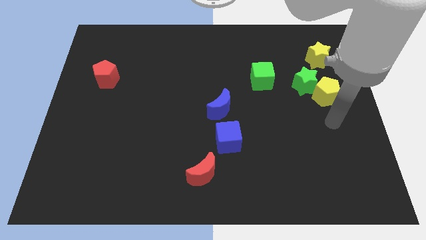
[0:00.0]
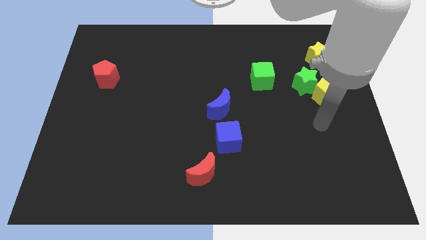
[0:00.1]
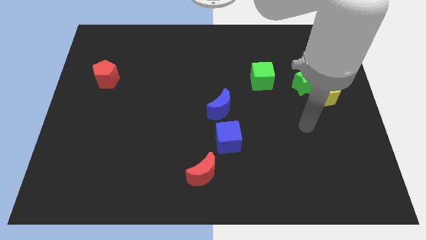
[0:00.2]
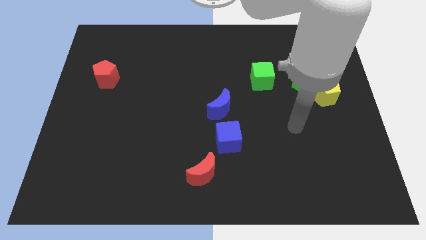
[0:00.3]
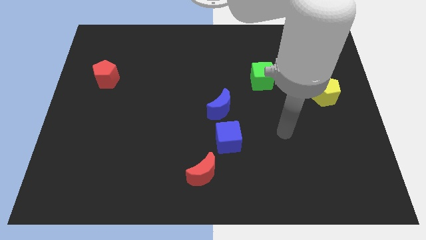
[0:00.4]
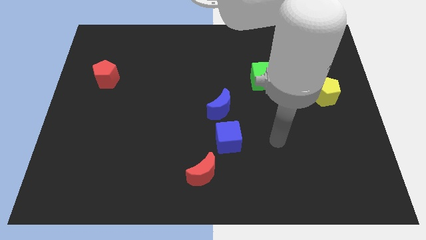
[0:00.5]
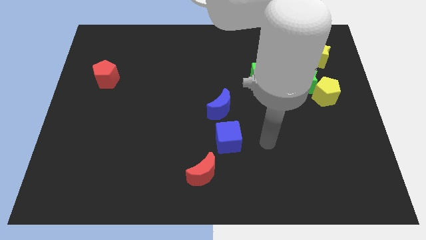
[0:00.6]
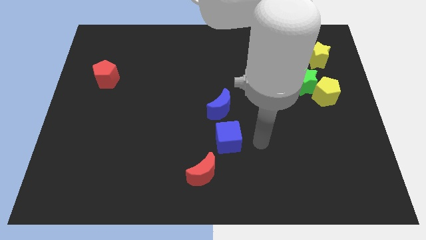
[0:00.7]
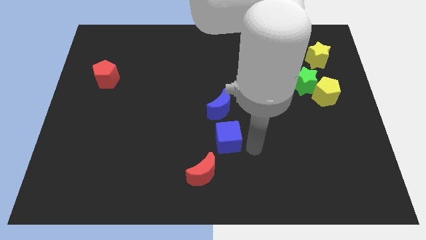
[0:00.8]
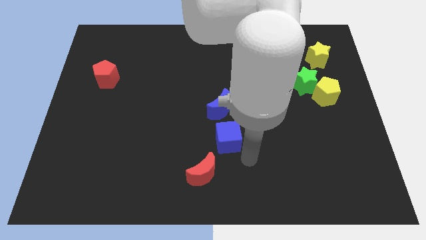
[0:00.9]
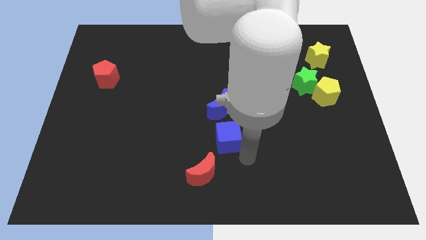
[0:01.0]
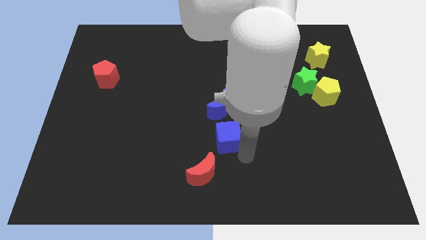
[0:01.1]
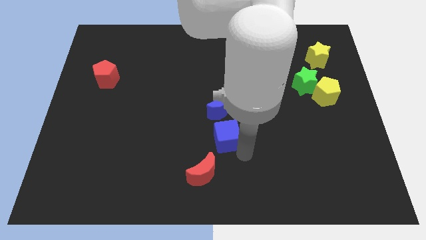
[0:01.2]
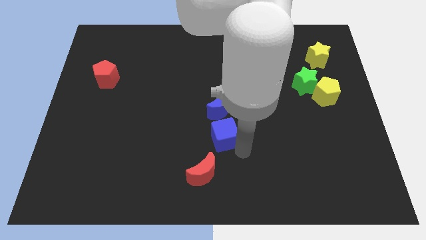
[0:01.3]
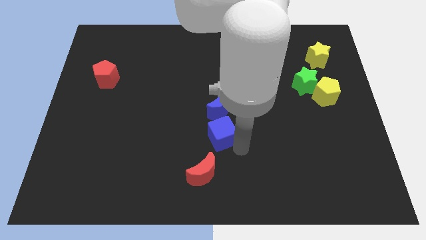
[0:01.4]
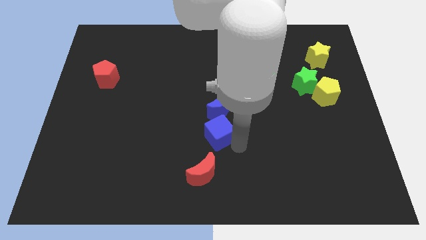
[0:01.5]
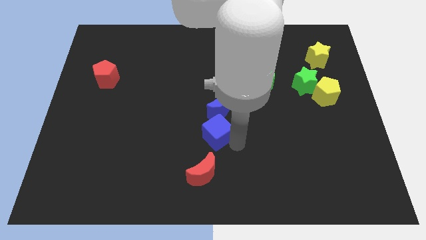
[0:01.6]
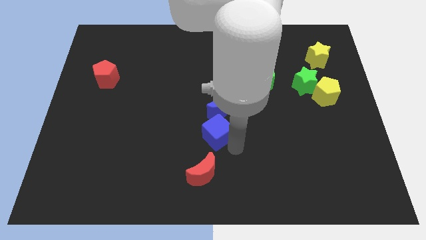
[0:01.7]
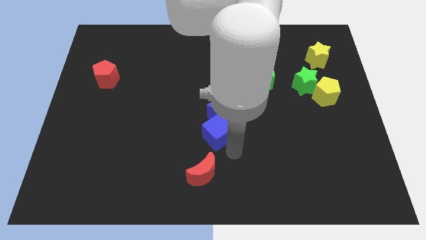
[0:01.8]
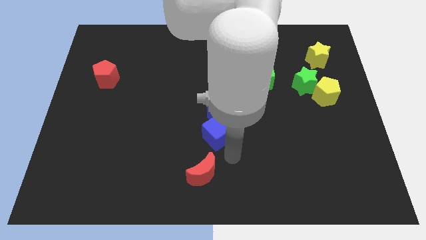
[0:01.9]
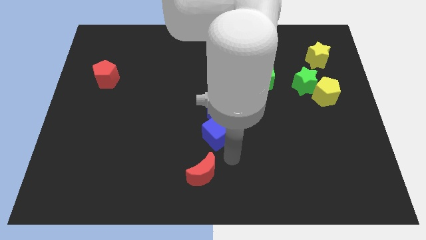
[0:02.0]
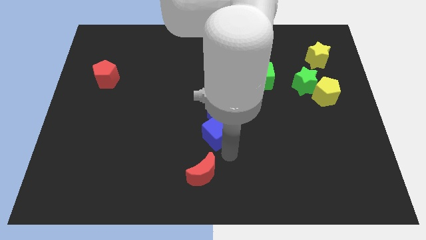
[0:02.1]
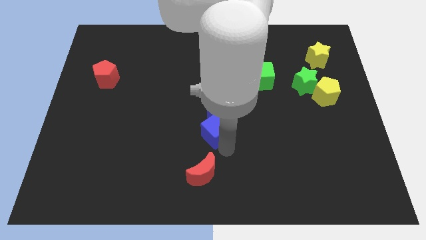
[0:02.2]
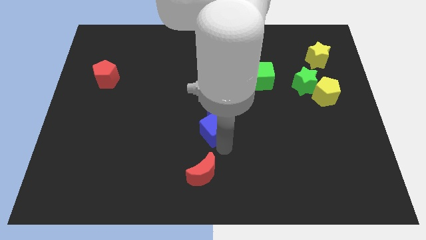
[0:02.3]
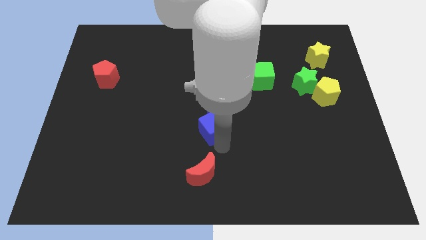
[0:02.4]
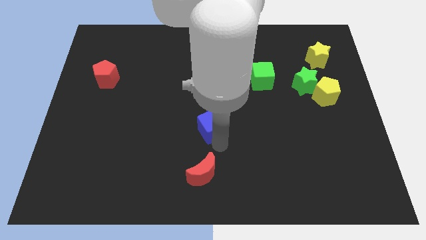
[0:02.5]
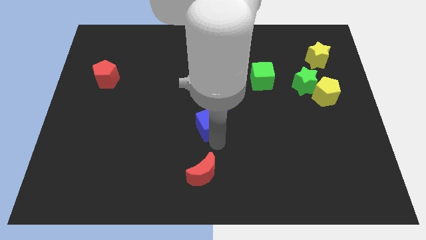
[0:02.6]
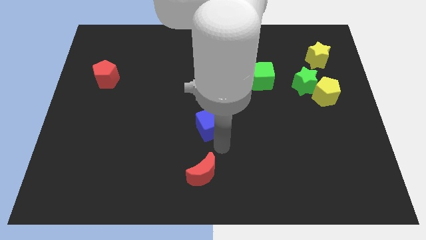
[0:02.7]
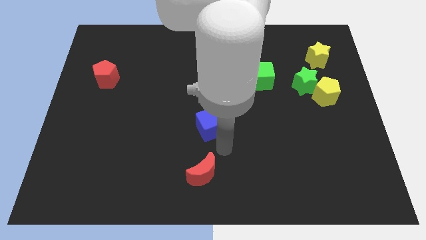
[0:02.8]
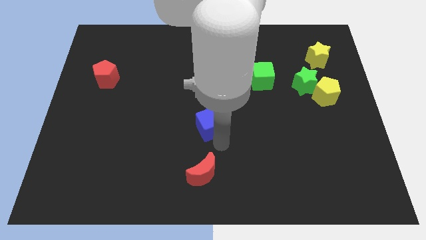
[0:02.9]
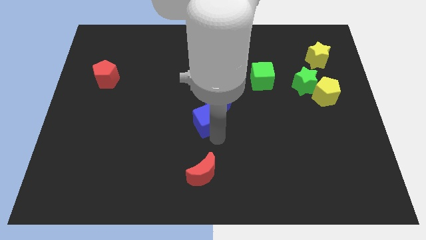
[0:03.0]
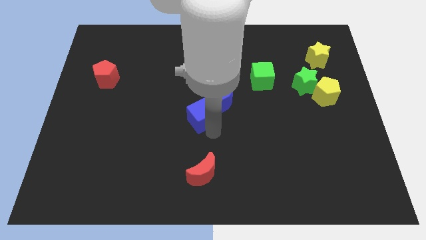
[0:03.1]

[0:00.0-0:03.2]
slide the blue cube a bit diagonally upwards and to the left

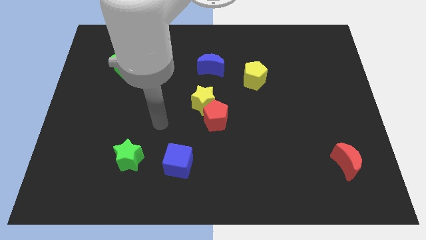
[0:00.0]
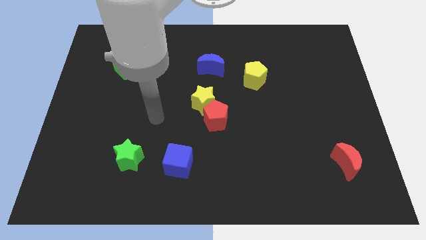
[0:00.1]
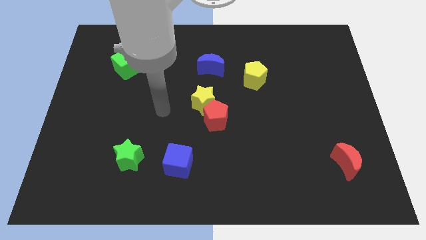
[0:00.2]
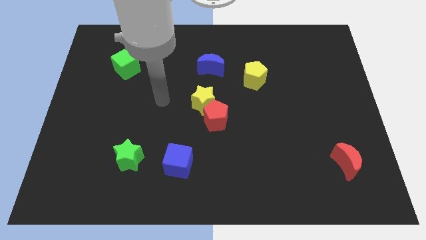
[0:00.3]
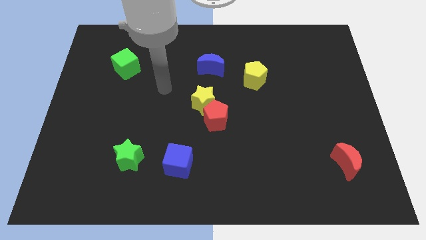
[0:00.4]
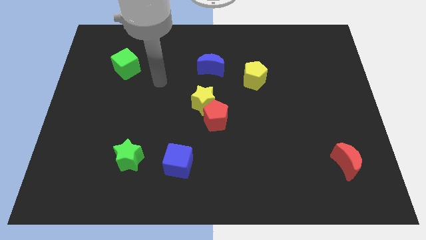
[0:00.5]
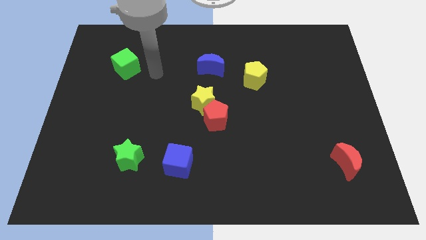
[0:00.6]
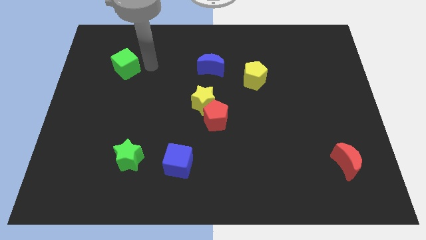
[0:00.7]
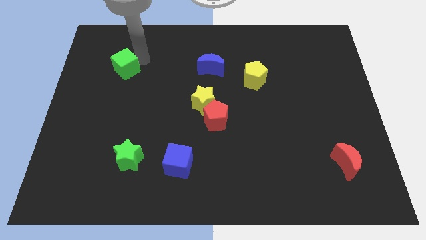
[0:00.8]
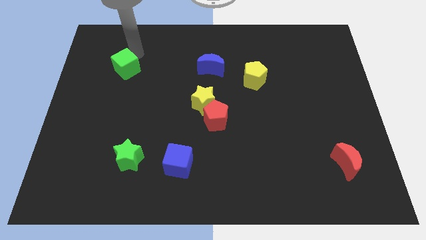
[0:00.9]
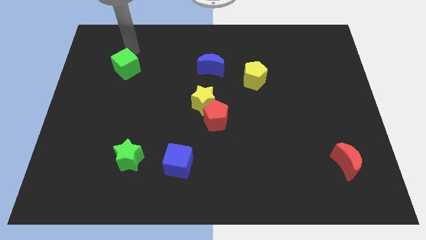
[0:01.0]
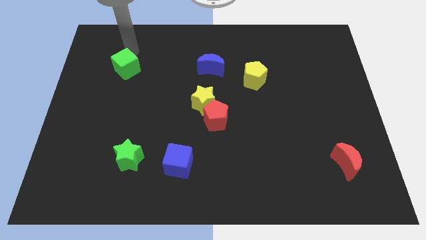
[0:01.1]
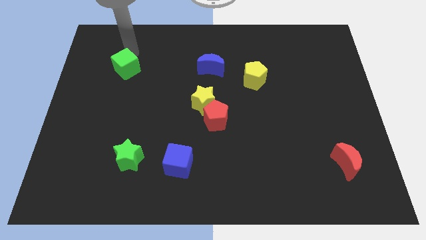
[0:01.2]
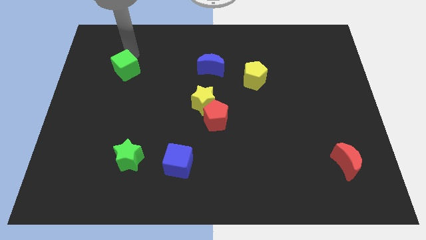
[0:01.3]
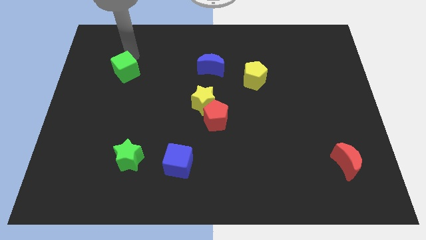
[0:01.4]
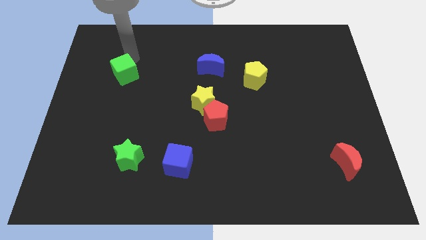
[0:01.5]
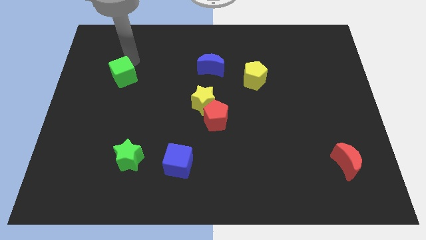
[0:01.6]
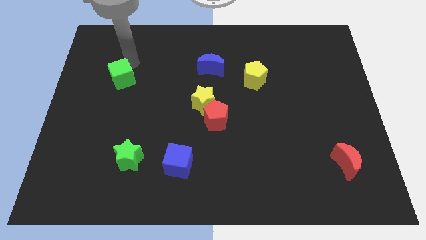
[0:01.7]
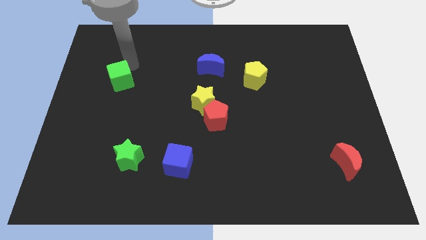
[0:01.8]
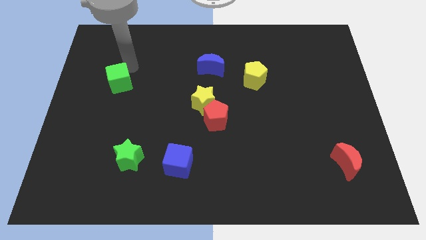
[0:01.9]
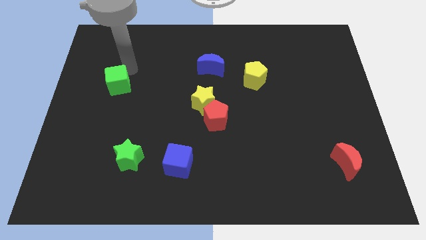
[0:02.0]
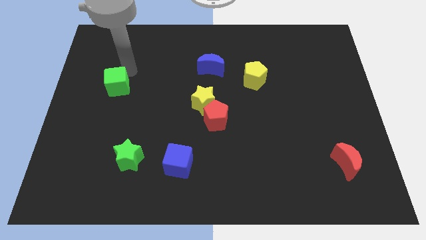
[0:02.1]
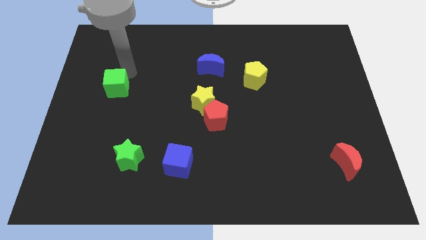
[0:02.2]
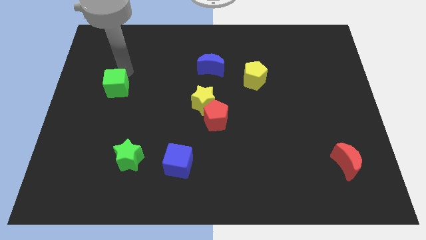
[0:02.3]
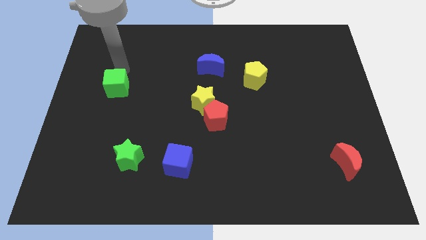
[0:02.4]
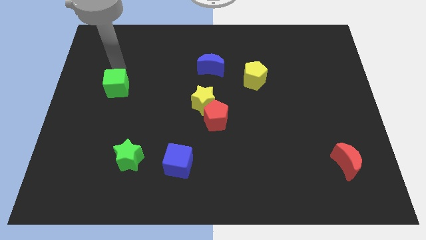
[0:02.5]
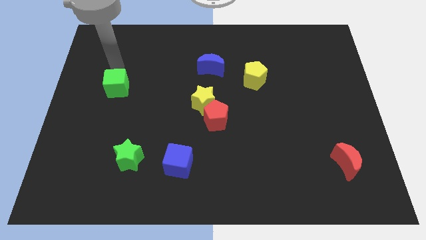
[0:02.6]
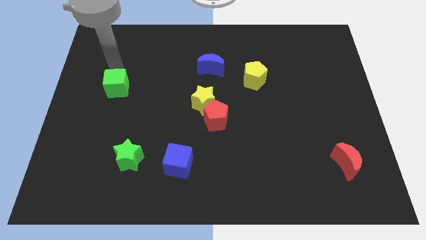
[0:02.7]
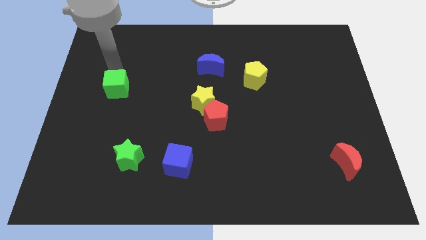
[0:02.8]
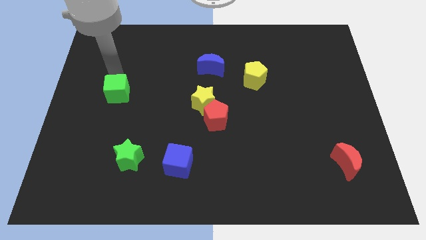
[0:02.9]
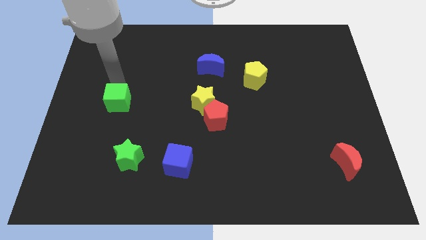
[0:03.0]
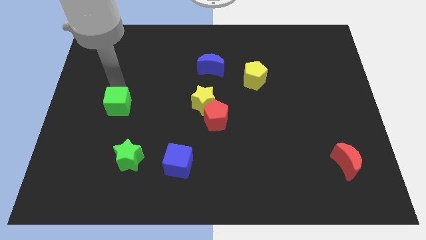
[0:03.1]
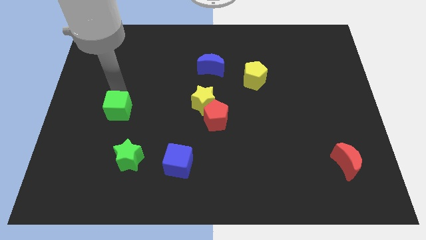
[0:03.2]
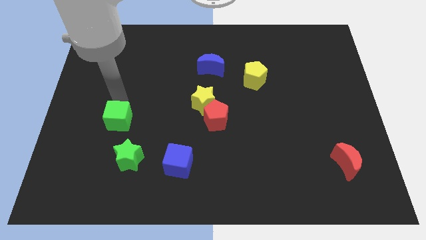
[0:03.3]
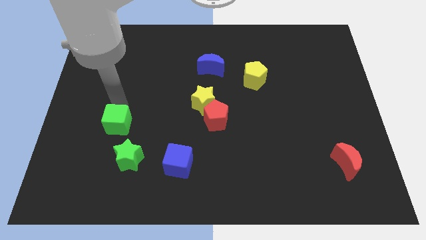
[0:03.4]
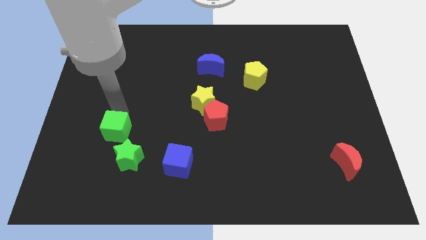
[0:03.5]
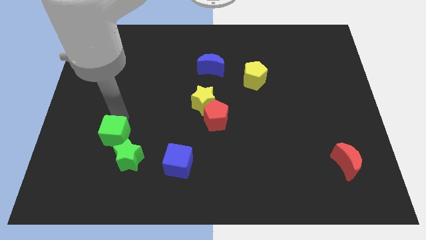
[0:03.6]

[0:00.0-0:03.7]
move the green cube down

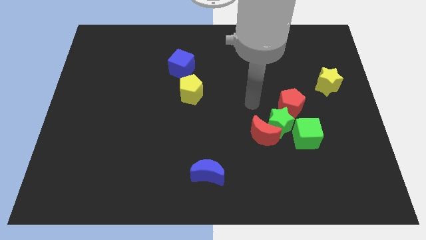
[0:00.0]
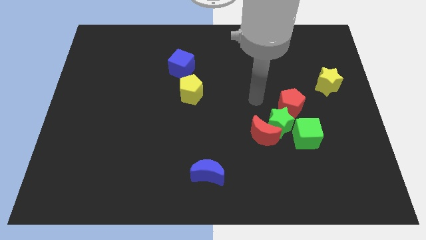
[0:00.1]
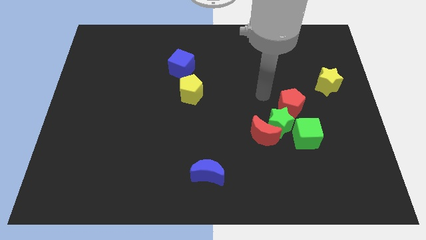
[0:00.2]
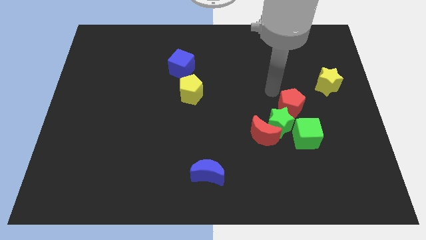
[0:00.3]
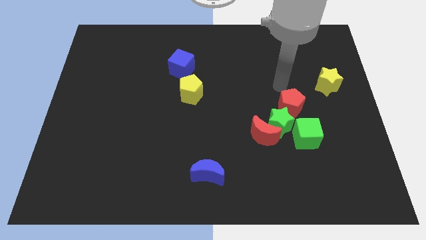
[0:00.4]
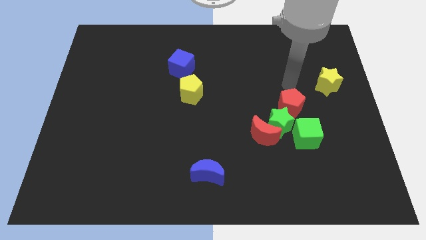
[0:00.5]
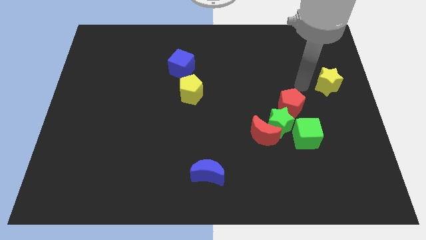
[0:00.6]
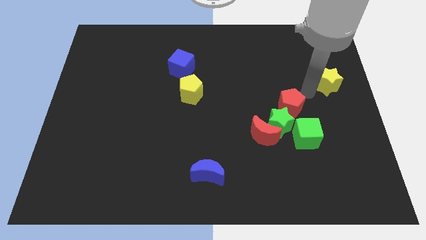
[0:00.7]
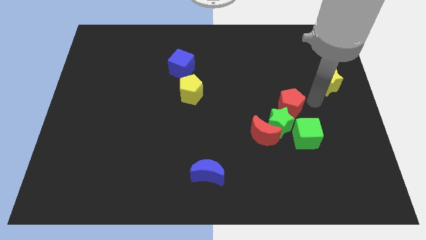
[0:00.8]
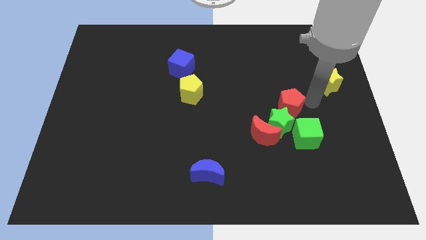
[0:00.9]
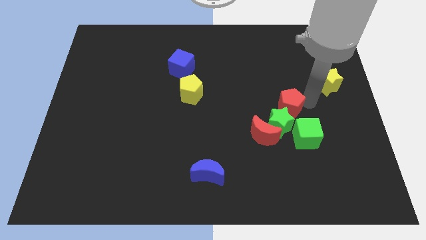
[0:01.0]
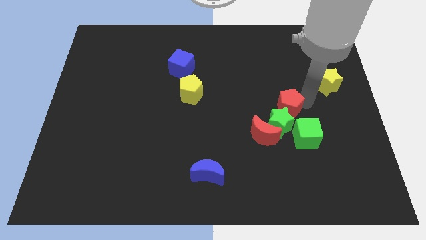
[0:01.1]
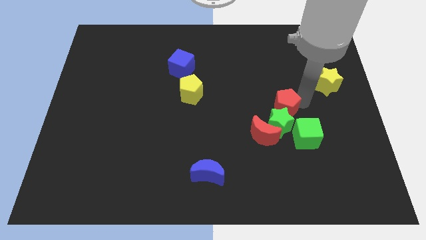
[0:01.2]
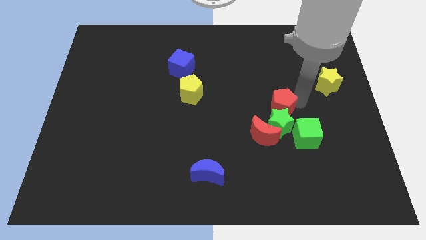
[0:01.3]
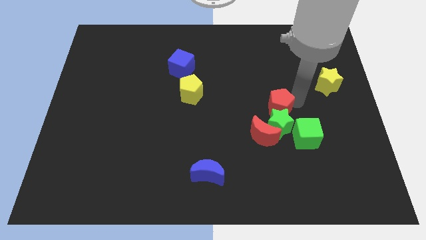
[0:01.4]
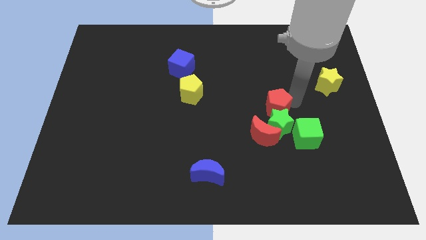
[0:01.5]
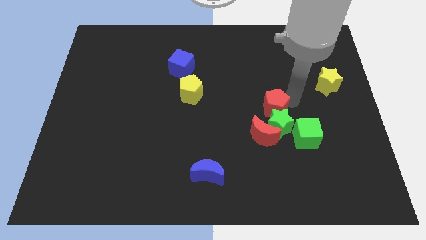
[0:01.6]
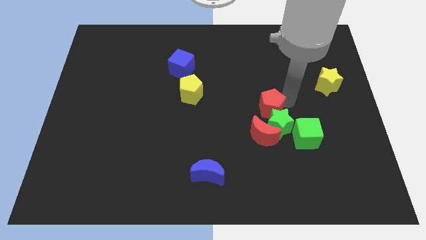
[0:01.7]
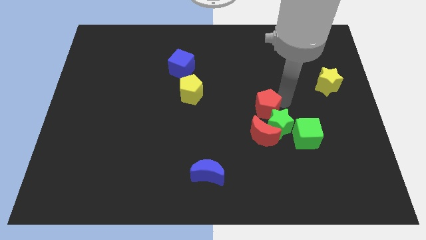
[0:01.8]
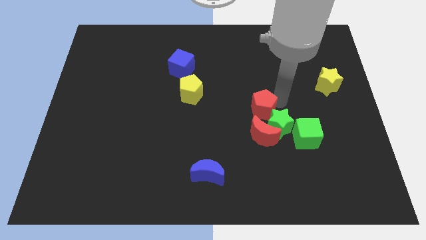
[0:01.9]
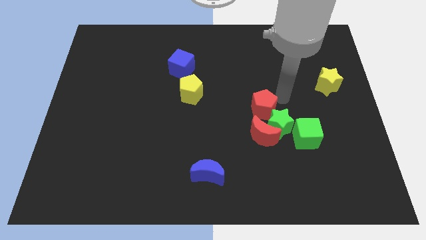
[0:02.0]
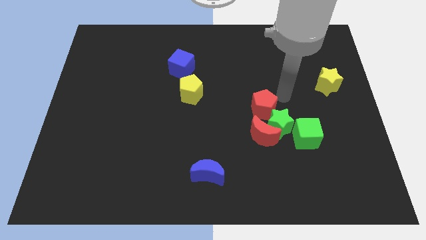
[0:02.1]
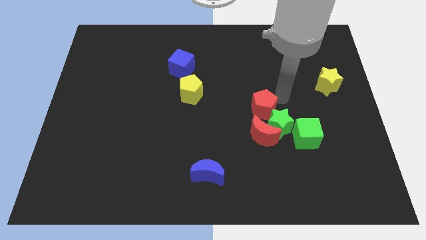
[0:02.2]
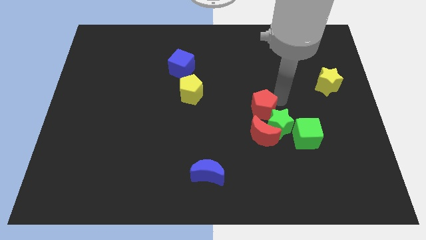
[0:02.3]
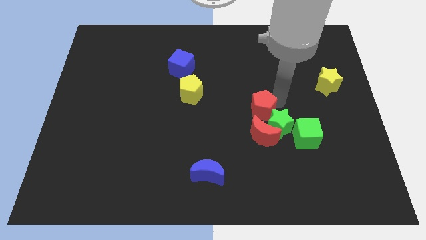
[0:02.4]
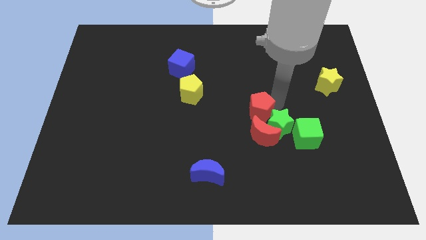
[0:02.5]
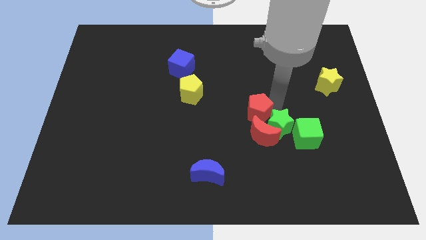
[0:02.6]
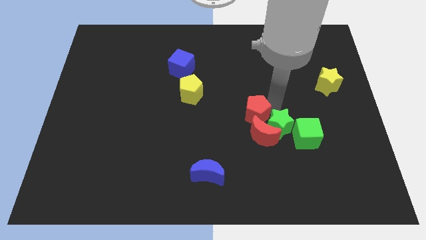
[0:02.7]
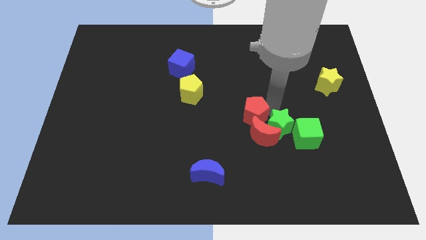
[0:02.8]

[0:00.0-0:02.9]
slide the red pentagon down and to the left a little
